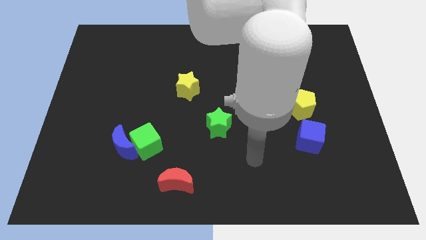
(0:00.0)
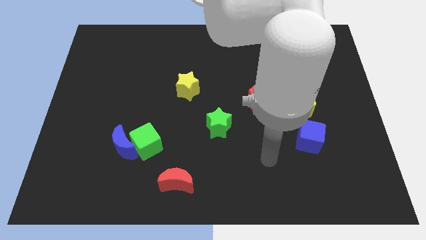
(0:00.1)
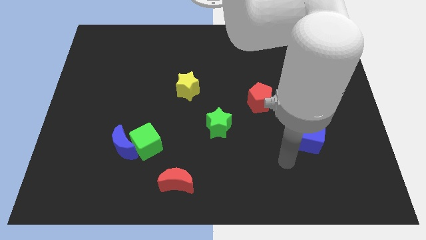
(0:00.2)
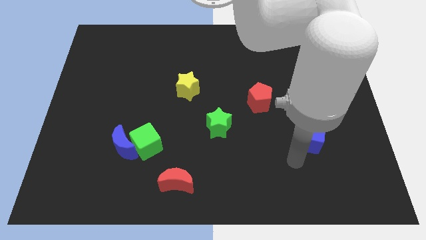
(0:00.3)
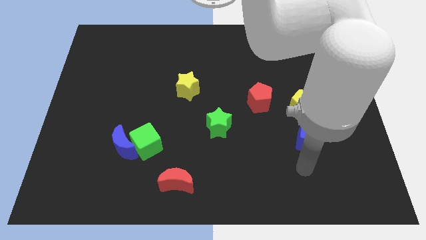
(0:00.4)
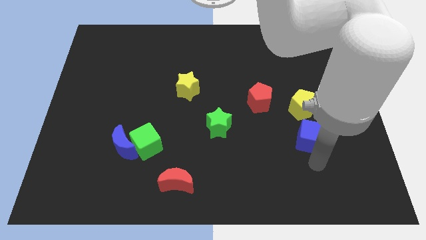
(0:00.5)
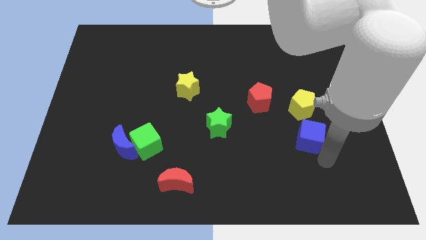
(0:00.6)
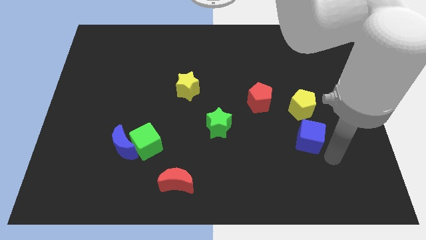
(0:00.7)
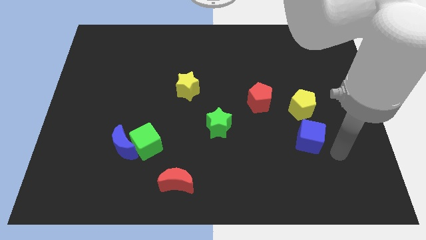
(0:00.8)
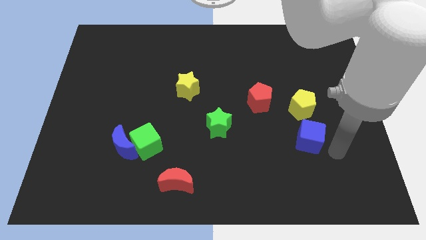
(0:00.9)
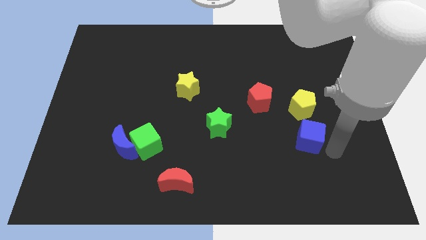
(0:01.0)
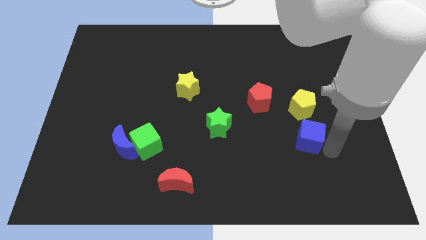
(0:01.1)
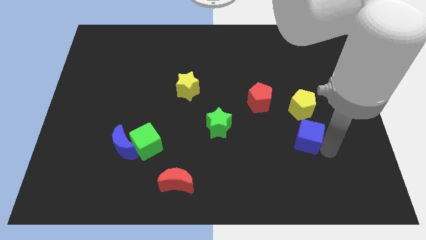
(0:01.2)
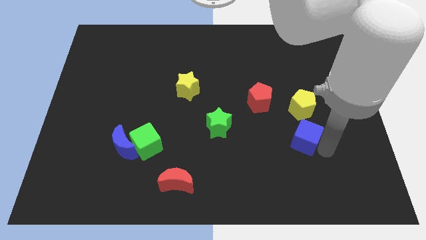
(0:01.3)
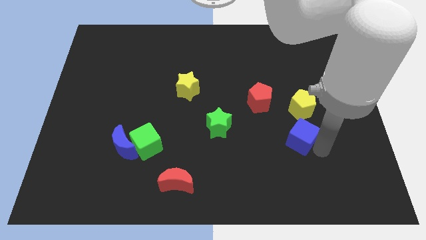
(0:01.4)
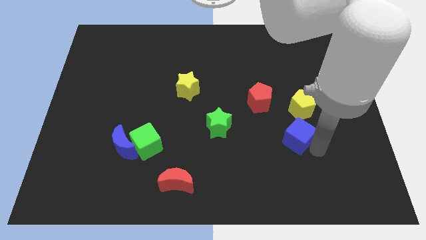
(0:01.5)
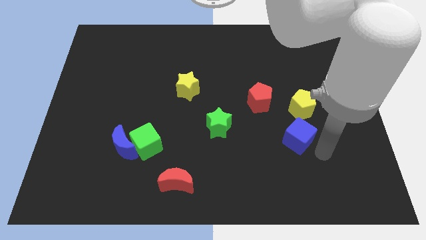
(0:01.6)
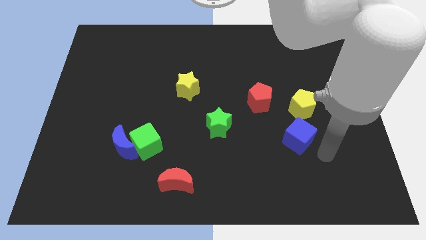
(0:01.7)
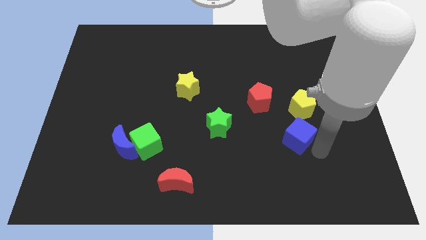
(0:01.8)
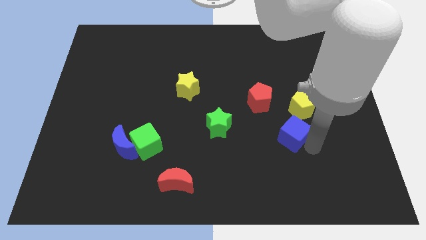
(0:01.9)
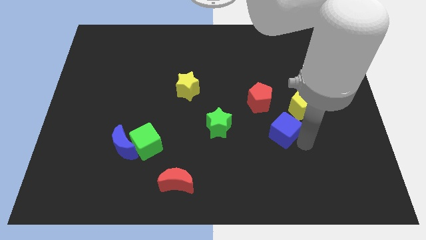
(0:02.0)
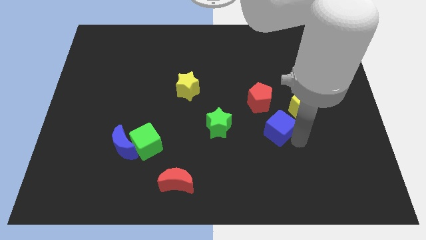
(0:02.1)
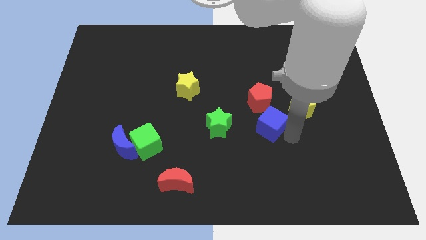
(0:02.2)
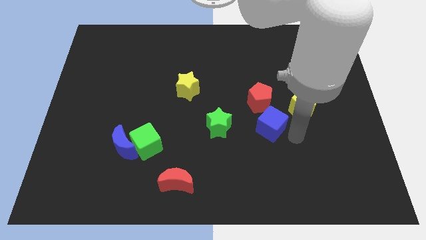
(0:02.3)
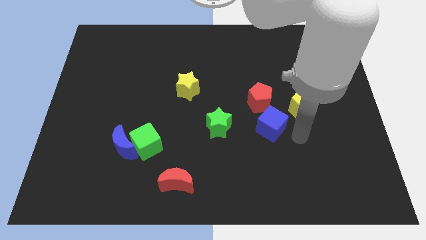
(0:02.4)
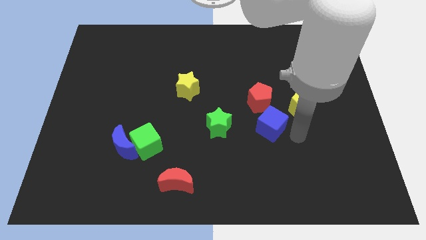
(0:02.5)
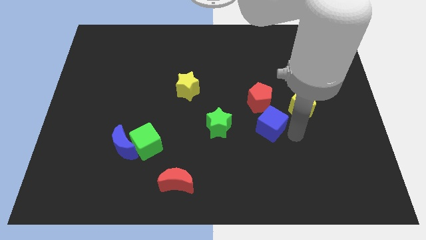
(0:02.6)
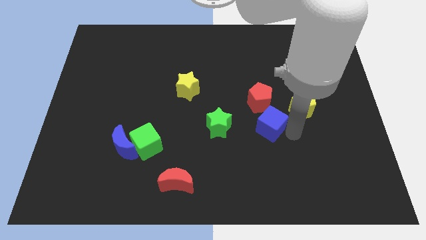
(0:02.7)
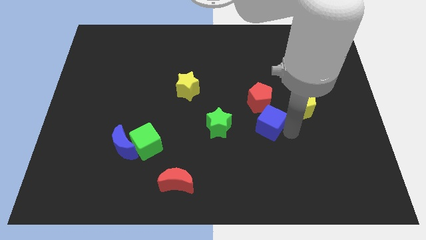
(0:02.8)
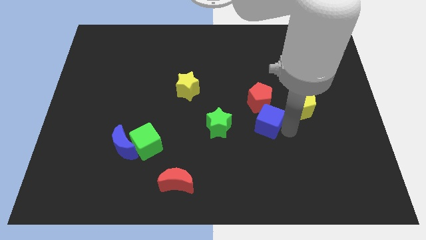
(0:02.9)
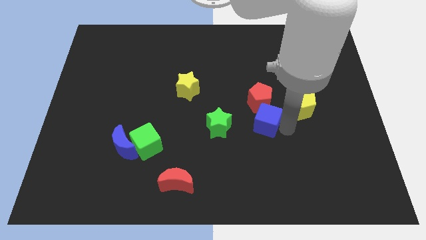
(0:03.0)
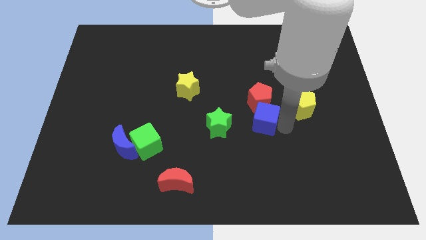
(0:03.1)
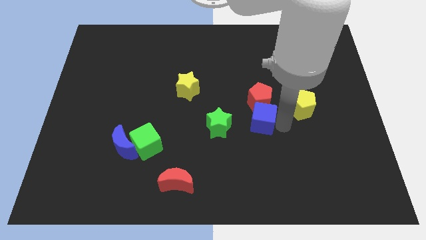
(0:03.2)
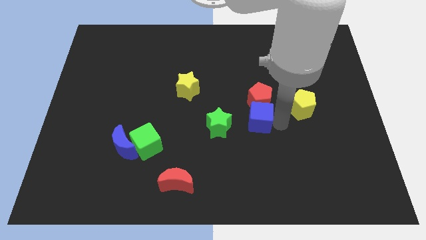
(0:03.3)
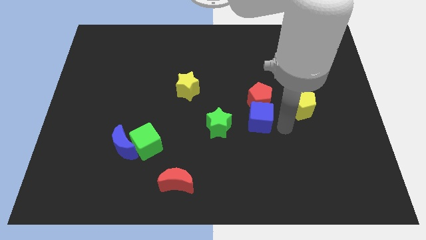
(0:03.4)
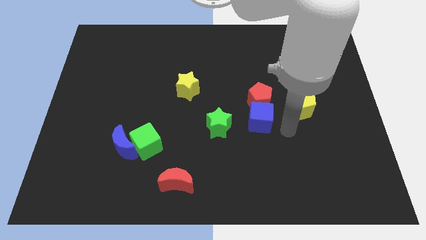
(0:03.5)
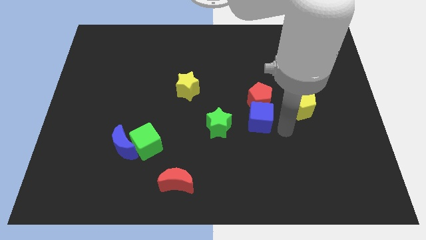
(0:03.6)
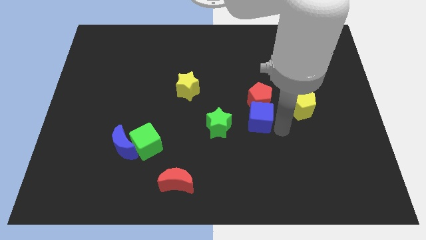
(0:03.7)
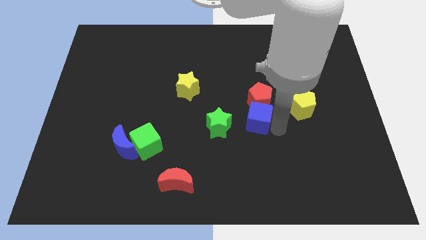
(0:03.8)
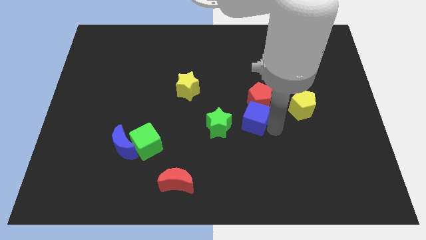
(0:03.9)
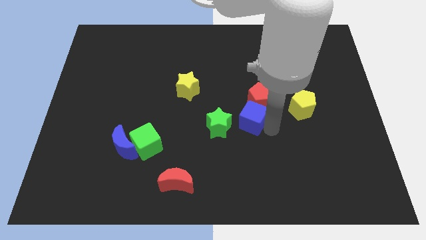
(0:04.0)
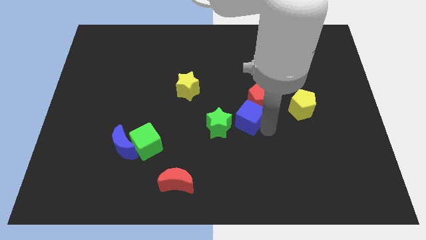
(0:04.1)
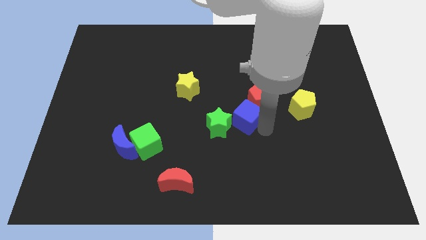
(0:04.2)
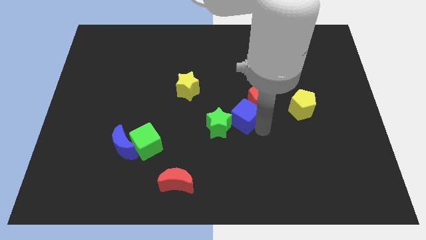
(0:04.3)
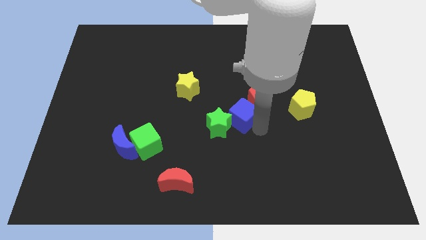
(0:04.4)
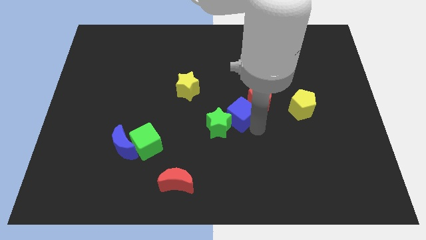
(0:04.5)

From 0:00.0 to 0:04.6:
slide the blue cube to the left side of the red pentagon

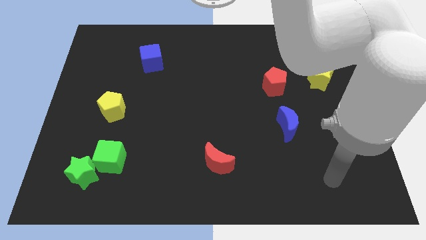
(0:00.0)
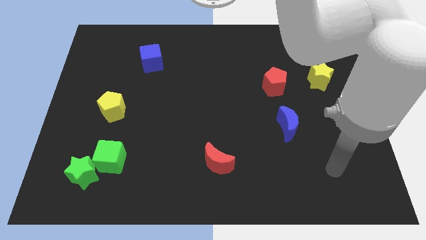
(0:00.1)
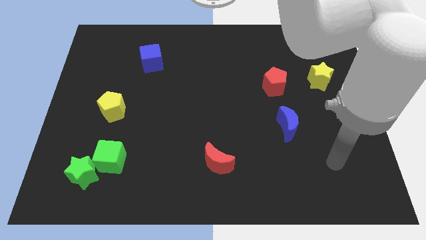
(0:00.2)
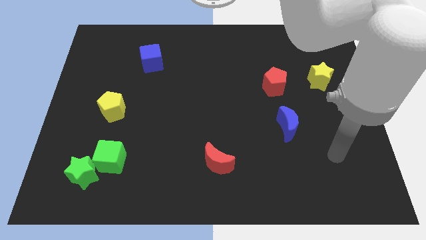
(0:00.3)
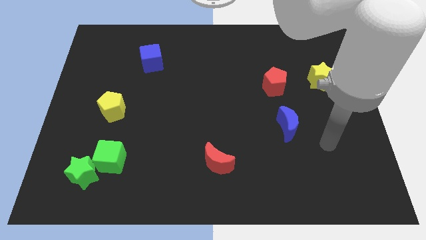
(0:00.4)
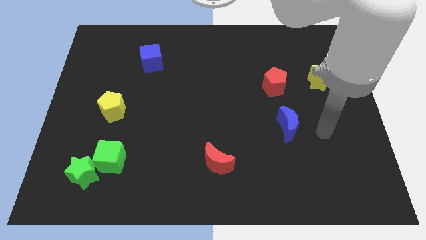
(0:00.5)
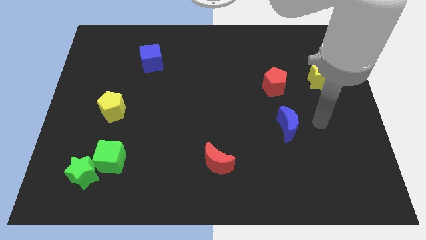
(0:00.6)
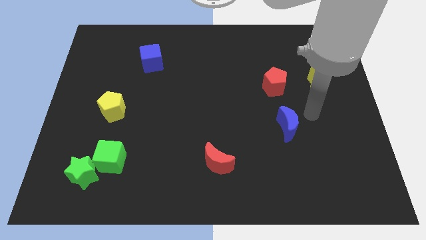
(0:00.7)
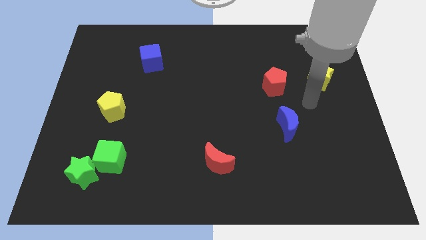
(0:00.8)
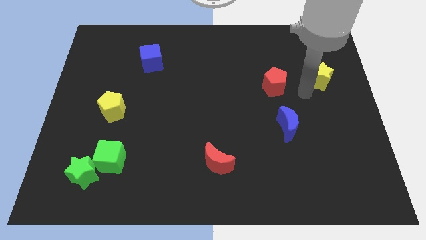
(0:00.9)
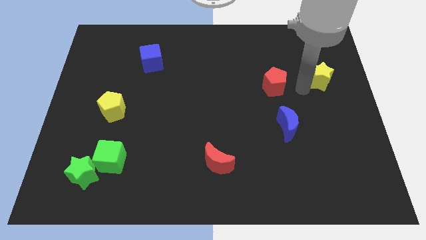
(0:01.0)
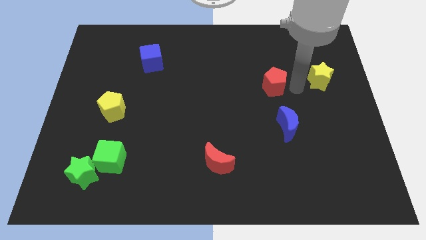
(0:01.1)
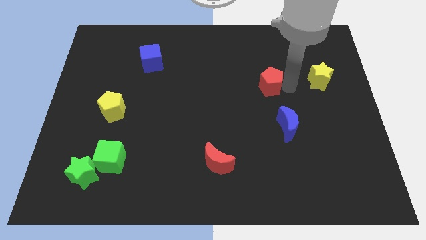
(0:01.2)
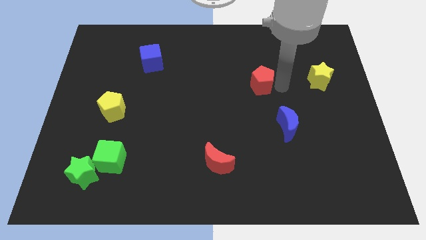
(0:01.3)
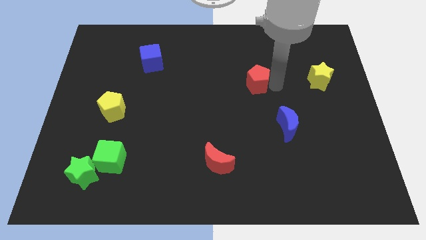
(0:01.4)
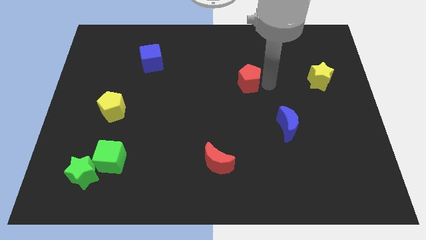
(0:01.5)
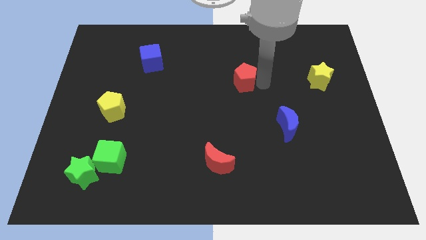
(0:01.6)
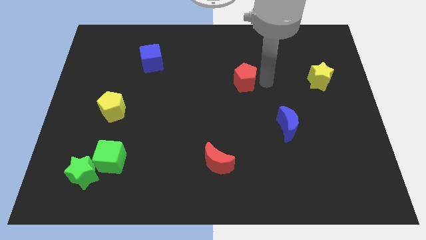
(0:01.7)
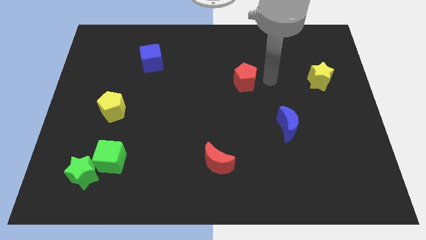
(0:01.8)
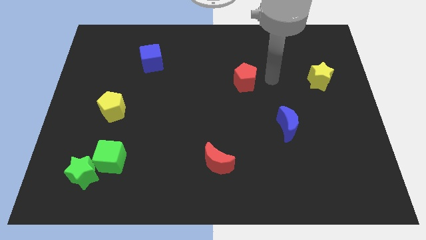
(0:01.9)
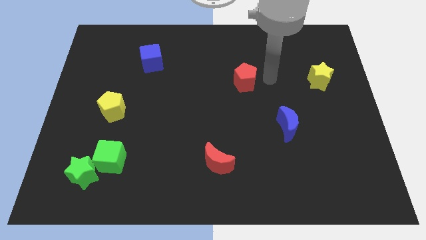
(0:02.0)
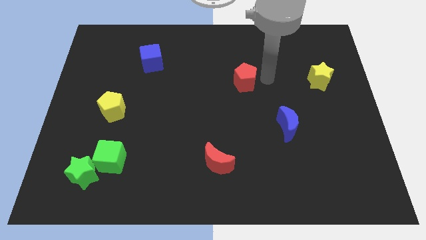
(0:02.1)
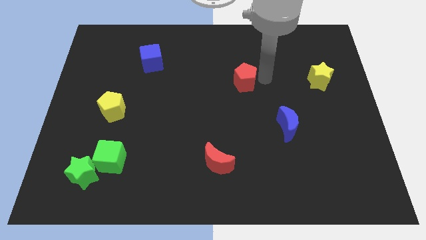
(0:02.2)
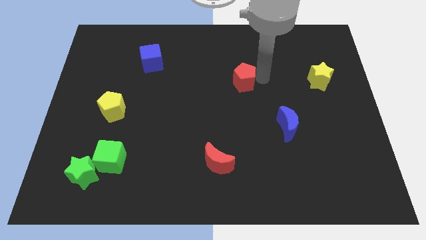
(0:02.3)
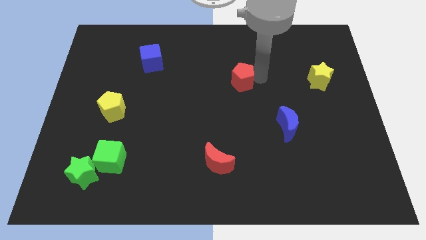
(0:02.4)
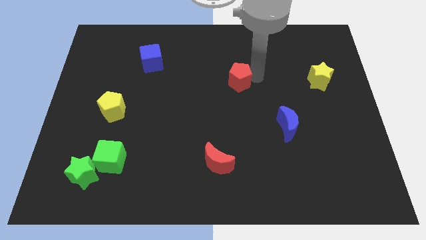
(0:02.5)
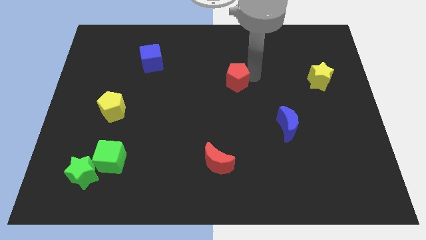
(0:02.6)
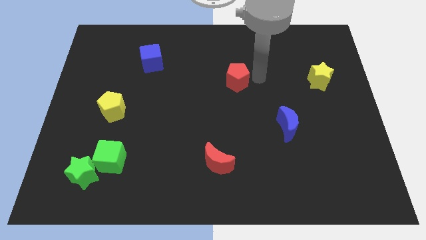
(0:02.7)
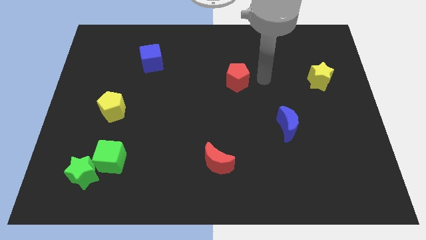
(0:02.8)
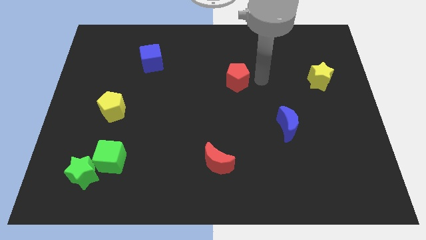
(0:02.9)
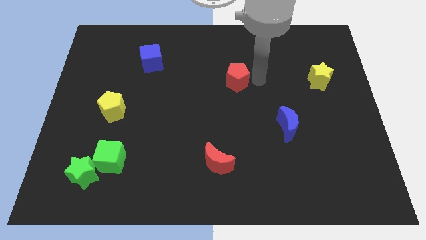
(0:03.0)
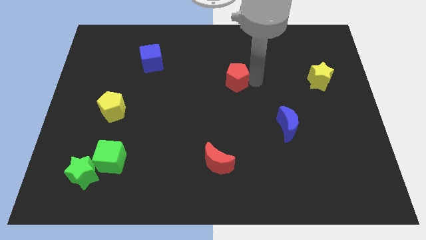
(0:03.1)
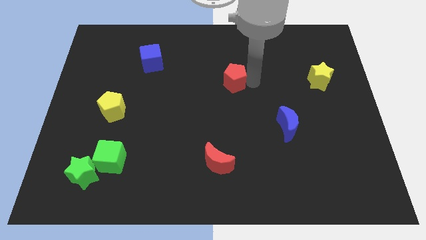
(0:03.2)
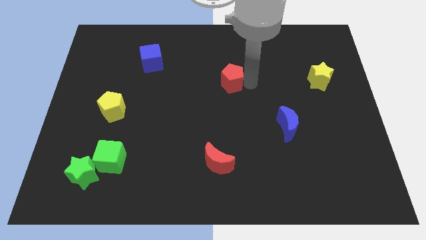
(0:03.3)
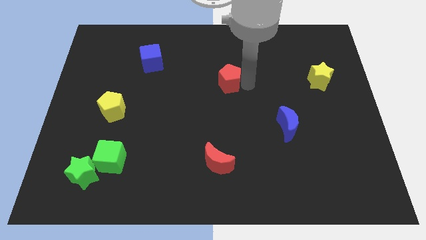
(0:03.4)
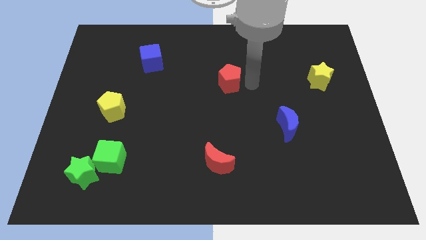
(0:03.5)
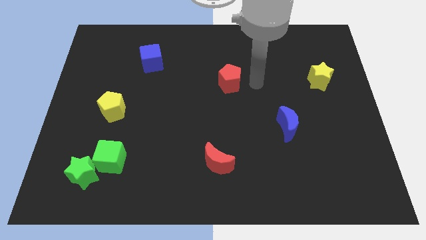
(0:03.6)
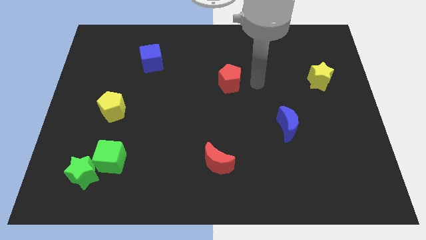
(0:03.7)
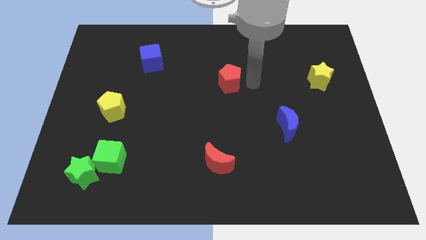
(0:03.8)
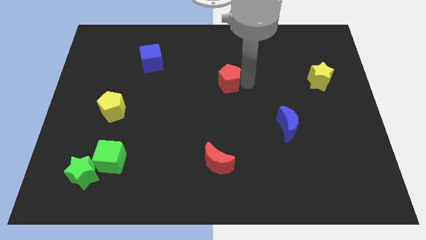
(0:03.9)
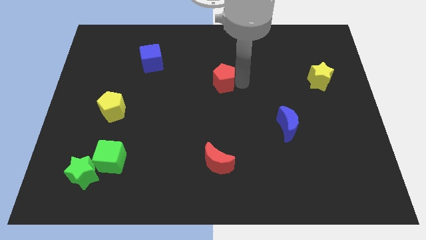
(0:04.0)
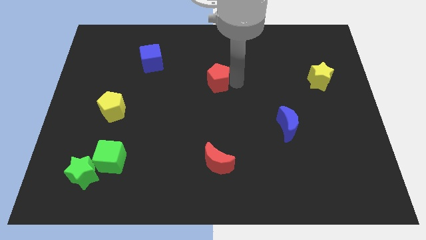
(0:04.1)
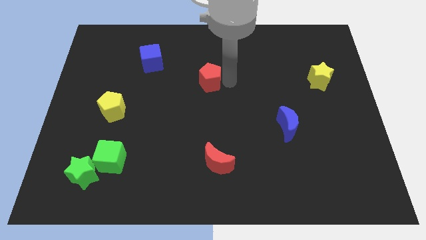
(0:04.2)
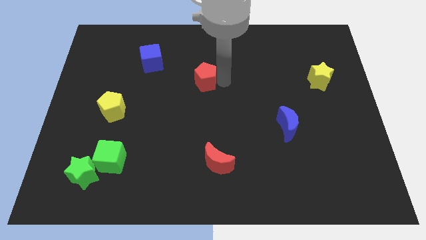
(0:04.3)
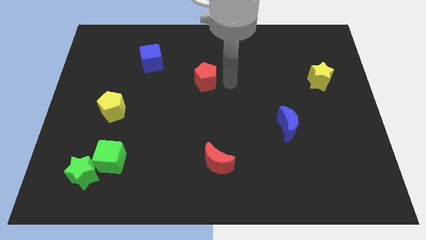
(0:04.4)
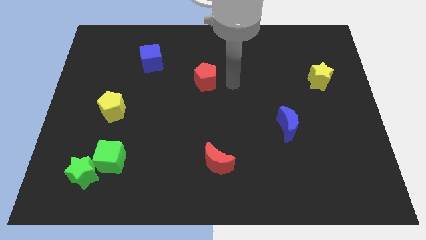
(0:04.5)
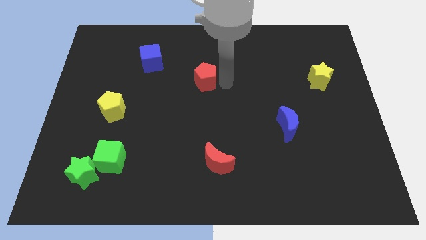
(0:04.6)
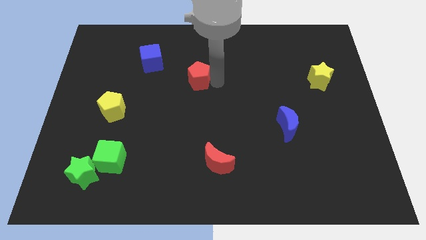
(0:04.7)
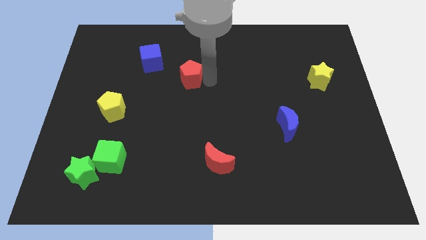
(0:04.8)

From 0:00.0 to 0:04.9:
push the red pentagon diagonally down and to the right of the blue cube
